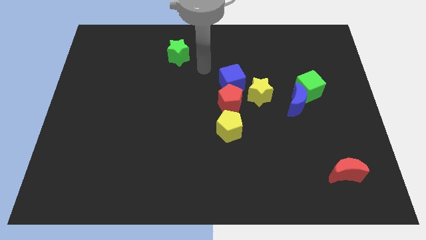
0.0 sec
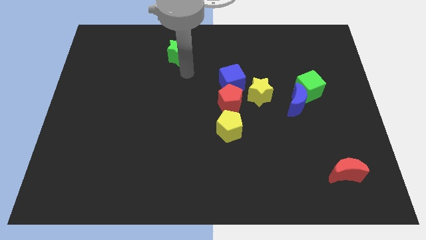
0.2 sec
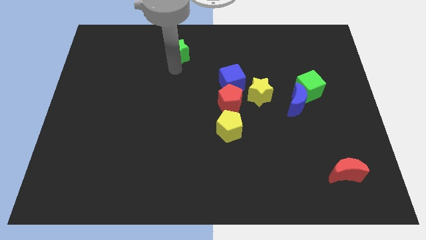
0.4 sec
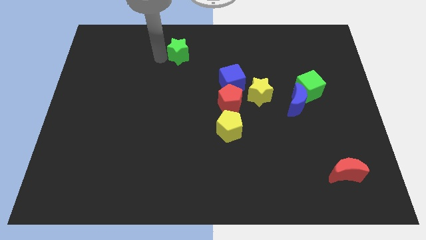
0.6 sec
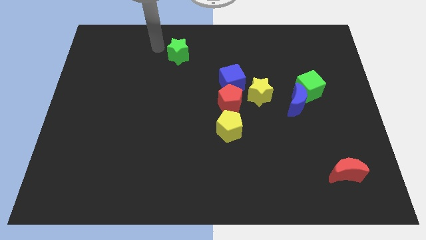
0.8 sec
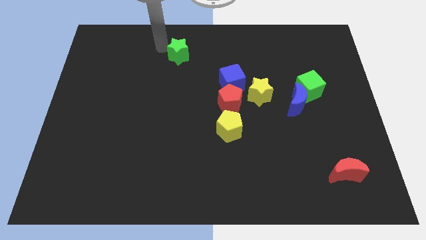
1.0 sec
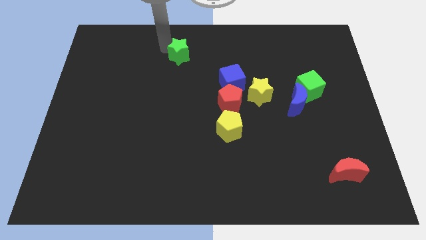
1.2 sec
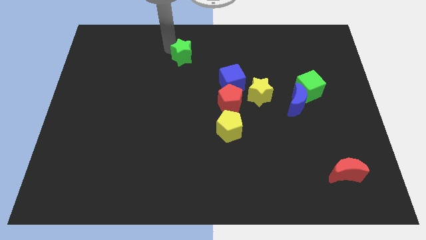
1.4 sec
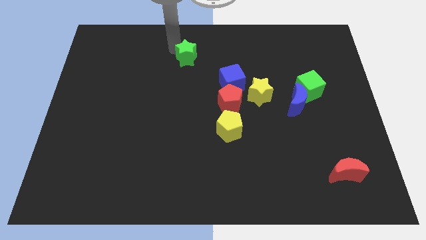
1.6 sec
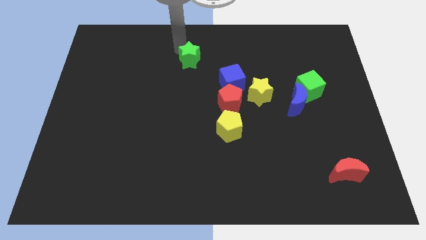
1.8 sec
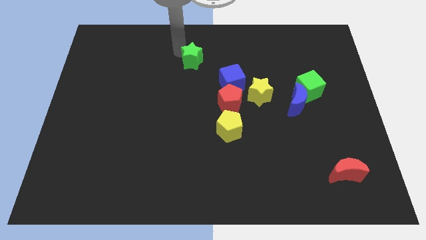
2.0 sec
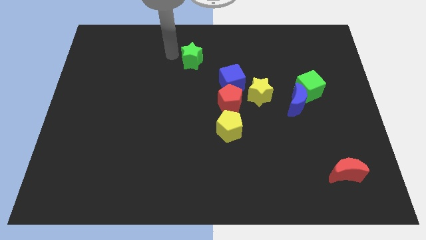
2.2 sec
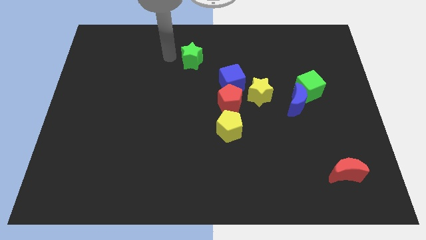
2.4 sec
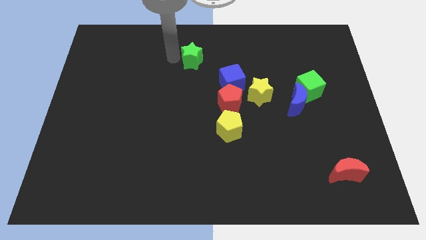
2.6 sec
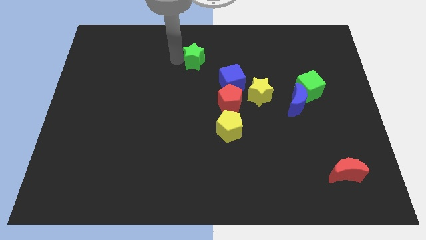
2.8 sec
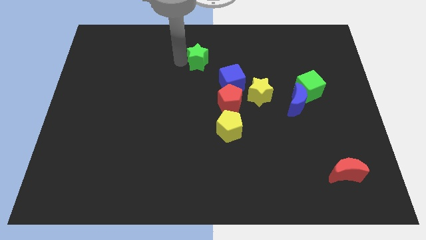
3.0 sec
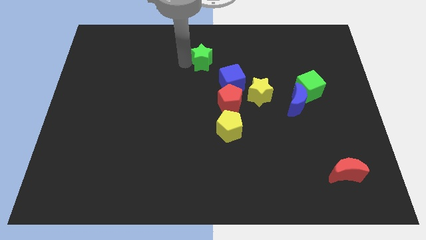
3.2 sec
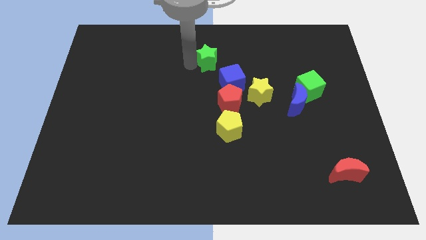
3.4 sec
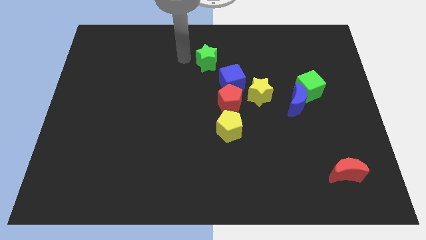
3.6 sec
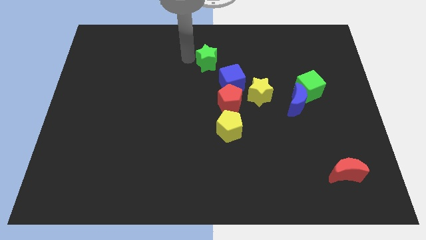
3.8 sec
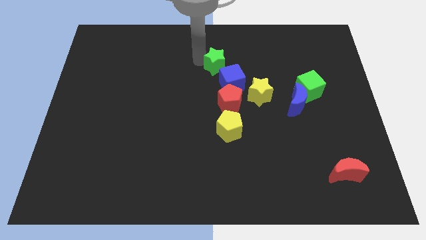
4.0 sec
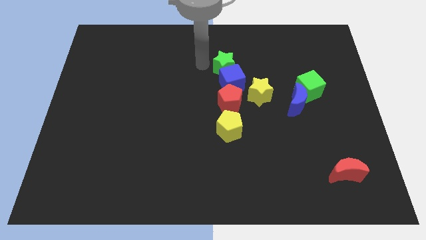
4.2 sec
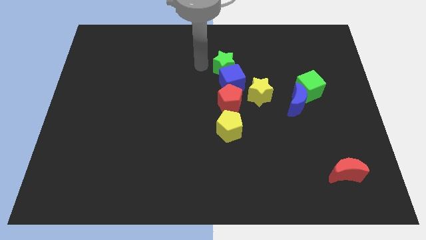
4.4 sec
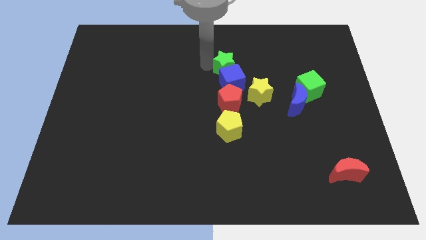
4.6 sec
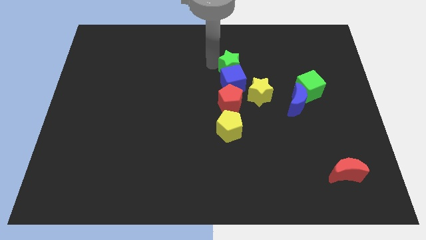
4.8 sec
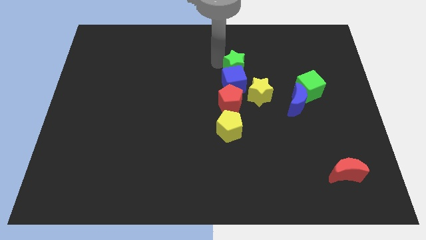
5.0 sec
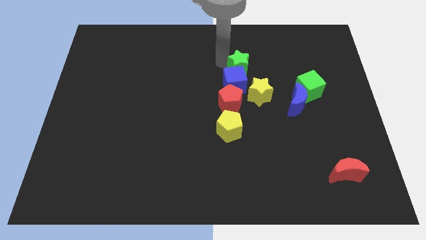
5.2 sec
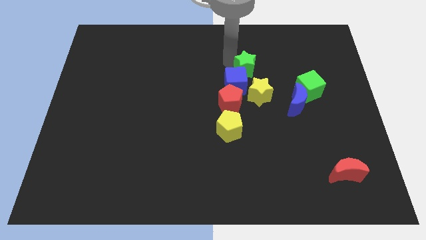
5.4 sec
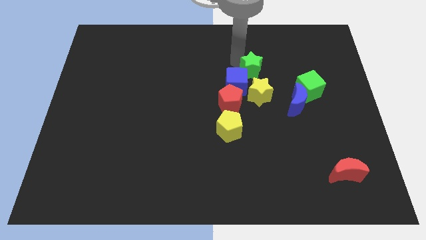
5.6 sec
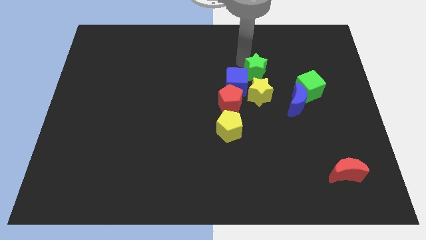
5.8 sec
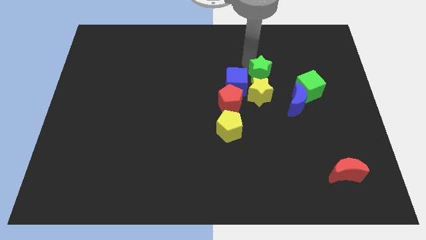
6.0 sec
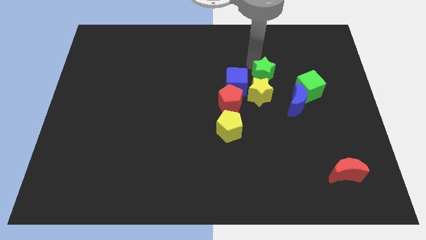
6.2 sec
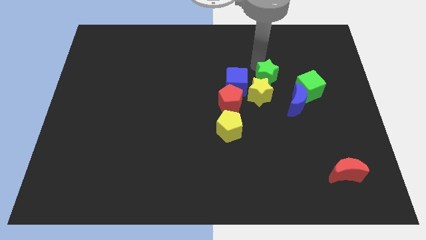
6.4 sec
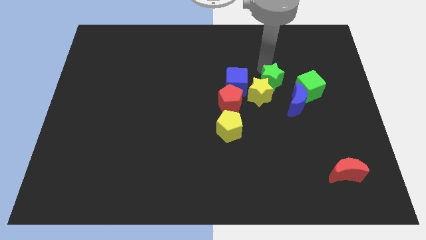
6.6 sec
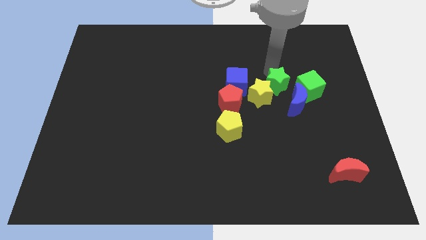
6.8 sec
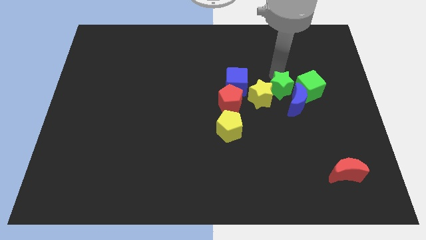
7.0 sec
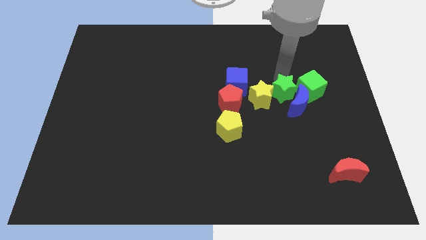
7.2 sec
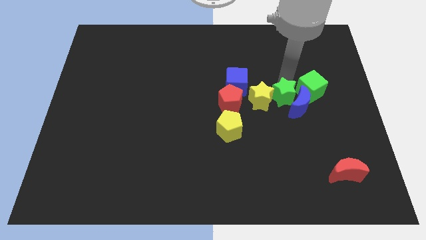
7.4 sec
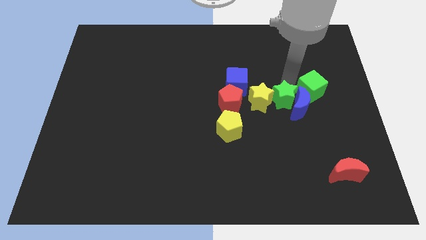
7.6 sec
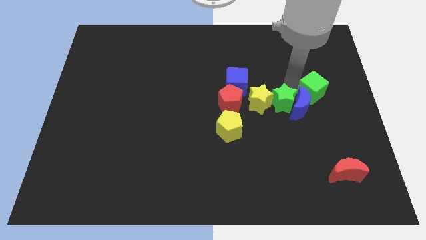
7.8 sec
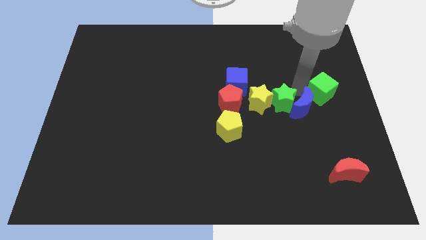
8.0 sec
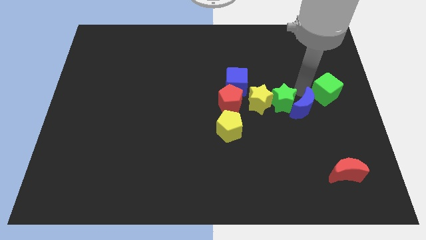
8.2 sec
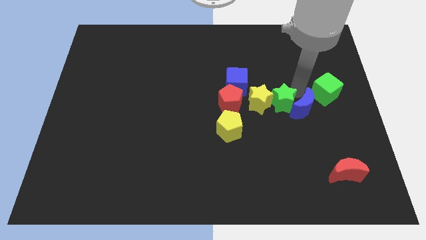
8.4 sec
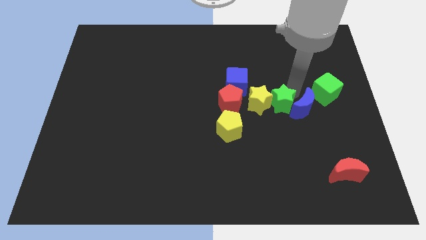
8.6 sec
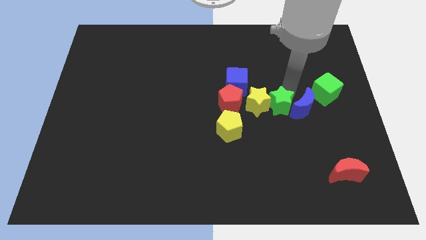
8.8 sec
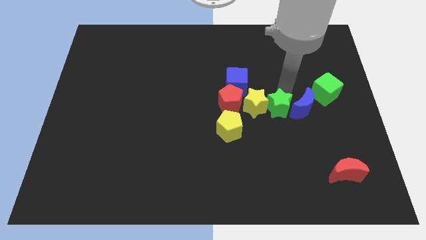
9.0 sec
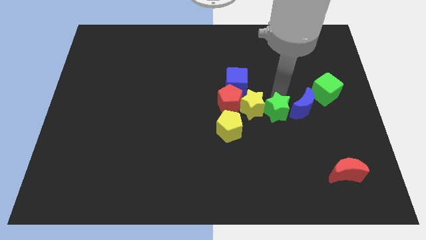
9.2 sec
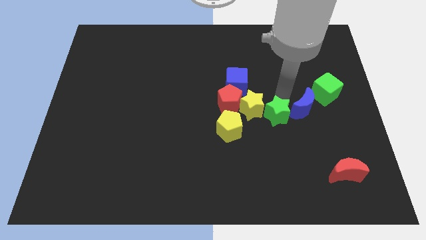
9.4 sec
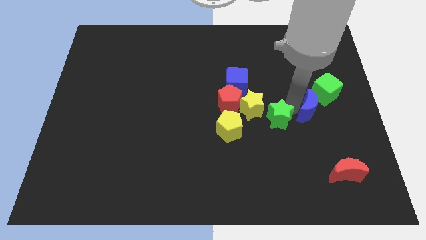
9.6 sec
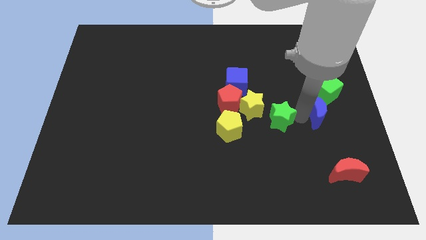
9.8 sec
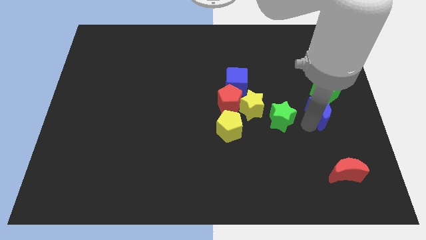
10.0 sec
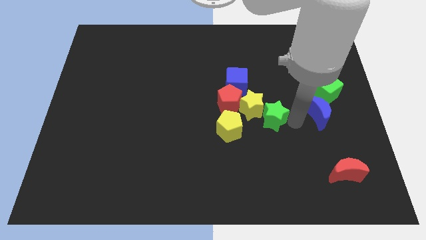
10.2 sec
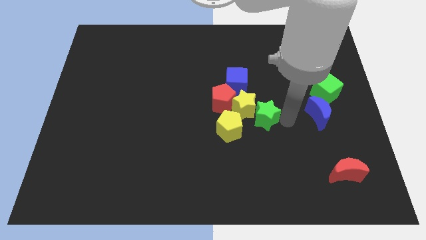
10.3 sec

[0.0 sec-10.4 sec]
move the green star to the top right side of the yellow pentagon

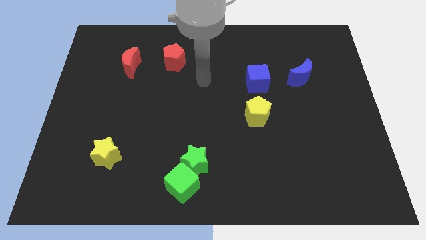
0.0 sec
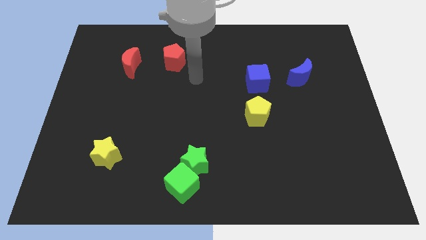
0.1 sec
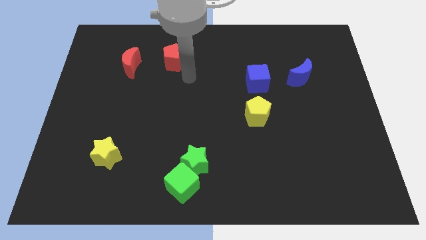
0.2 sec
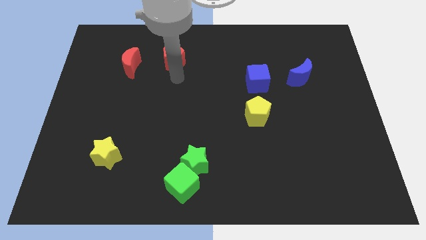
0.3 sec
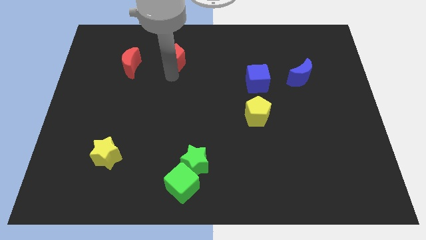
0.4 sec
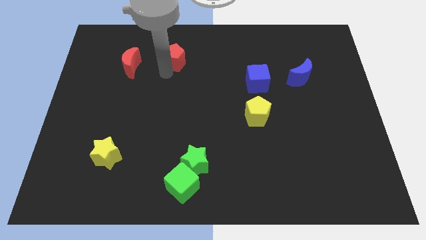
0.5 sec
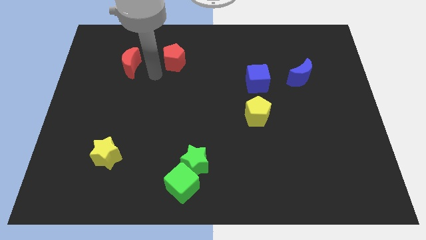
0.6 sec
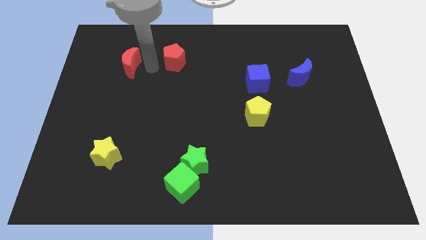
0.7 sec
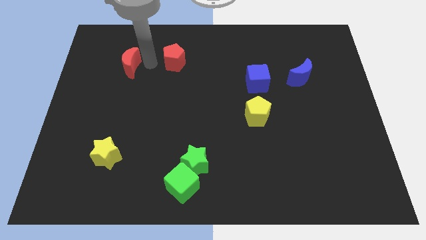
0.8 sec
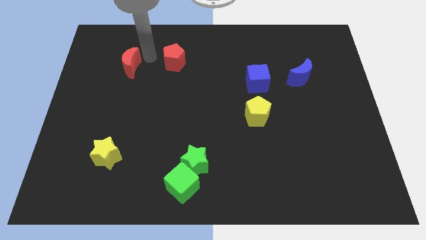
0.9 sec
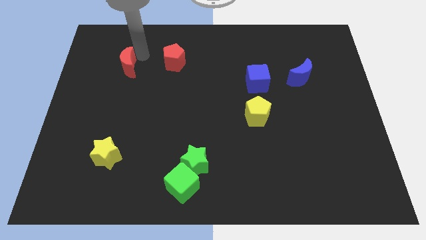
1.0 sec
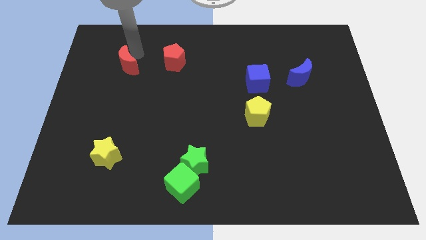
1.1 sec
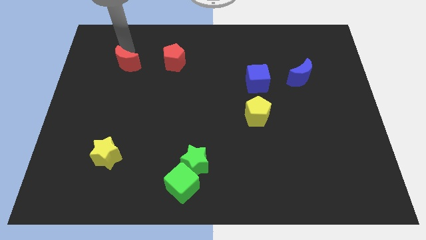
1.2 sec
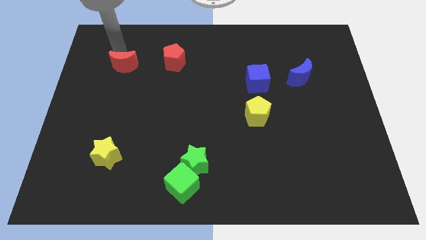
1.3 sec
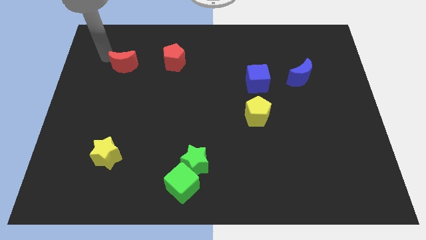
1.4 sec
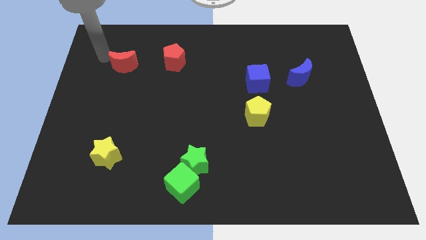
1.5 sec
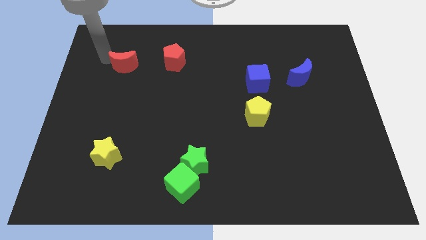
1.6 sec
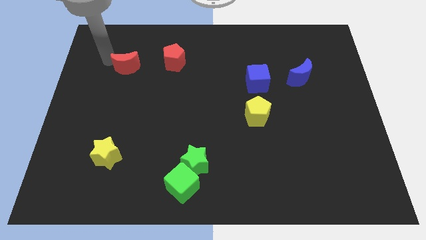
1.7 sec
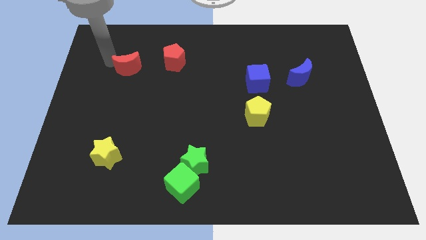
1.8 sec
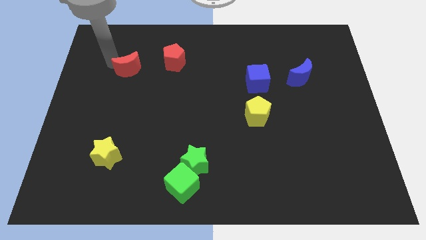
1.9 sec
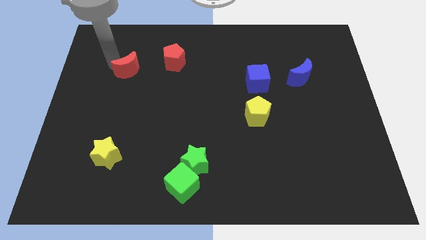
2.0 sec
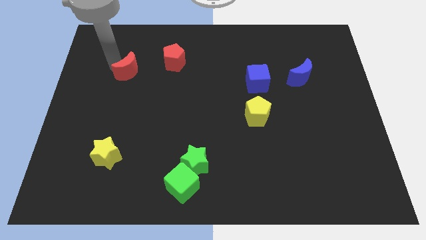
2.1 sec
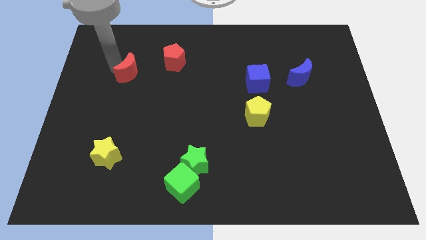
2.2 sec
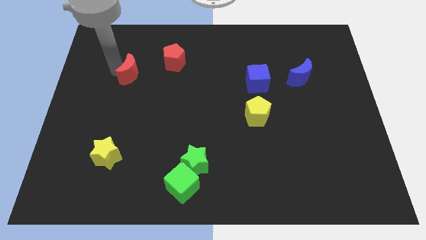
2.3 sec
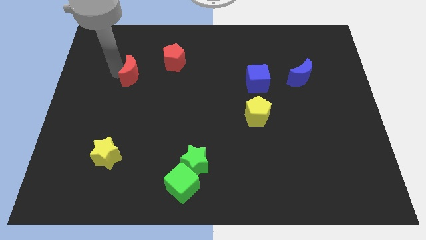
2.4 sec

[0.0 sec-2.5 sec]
move the red moon diagonally down and to the left of the red pentagon
